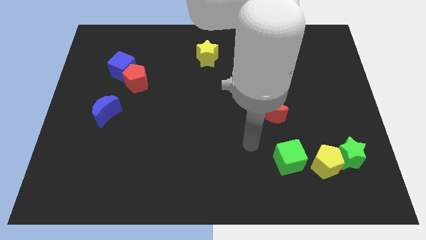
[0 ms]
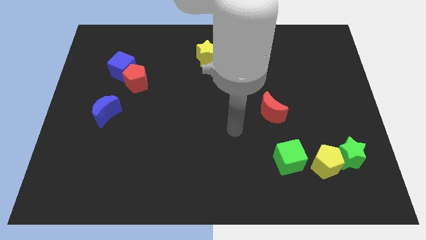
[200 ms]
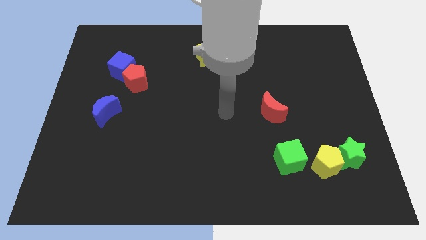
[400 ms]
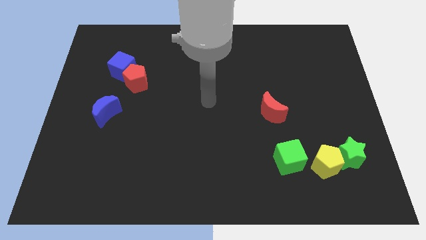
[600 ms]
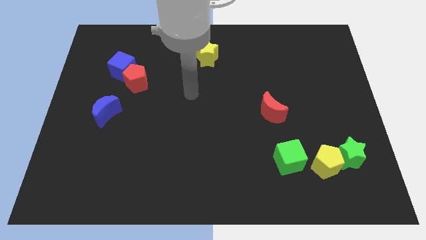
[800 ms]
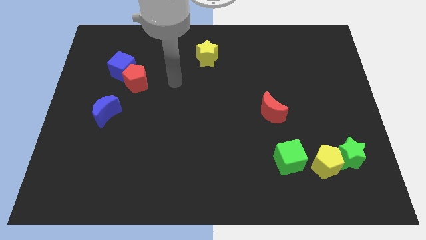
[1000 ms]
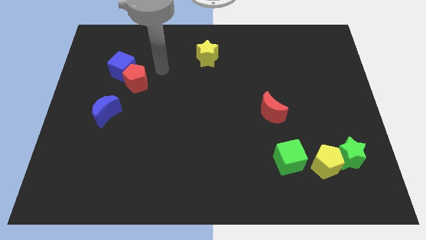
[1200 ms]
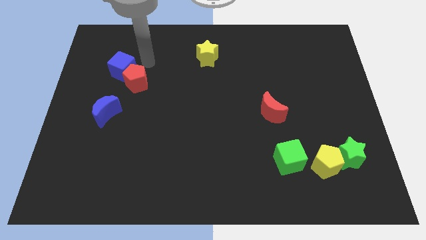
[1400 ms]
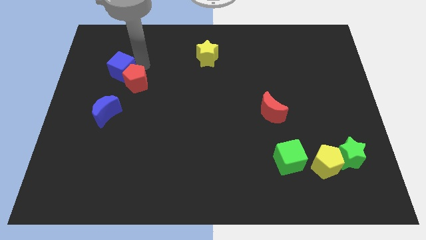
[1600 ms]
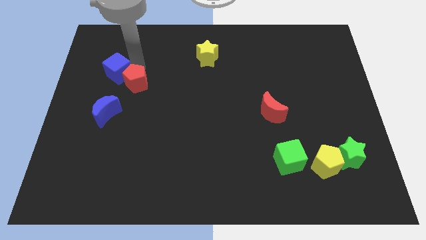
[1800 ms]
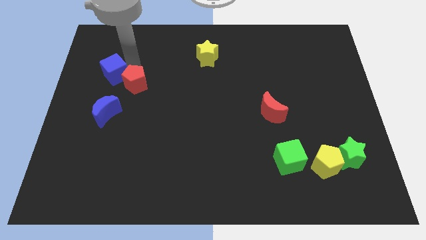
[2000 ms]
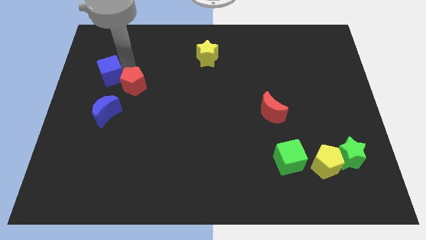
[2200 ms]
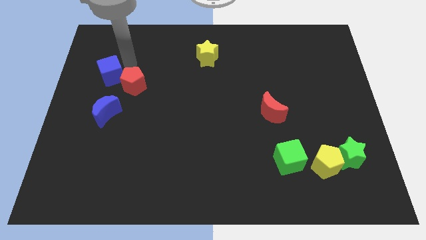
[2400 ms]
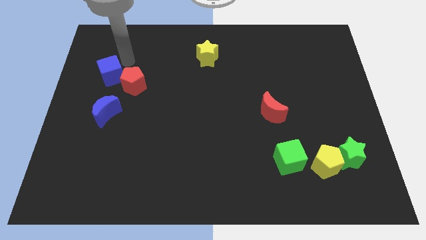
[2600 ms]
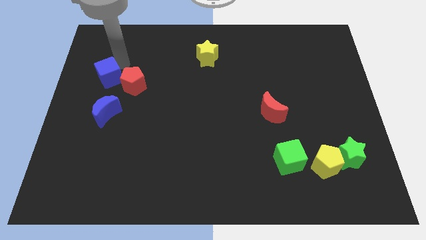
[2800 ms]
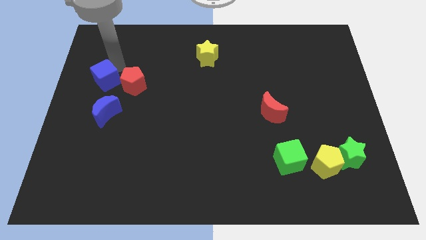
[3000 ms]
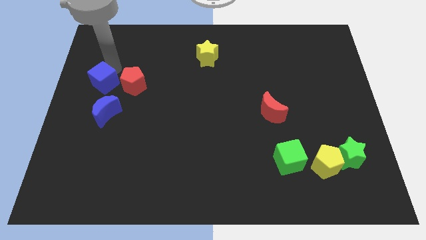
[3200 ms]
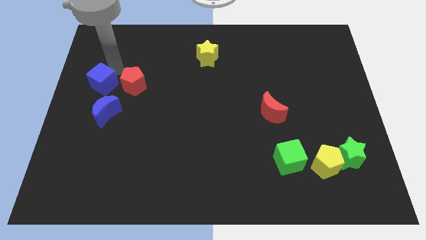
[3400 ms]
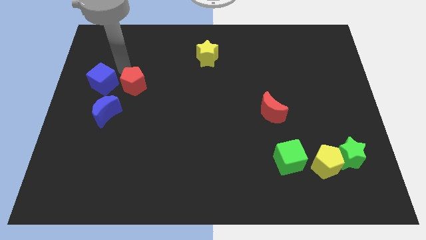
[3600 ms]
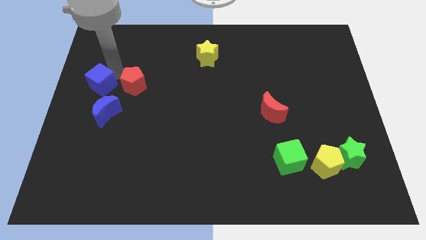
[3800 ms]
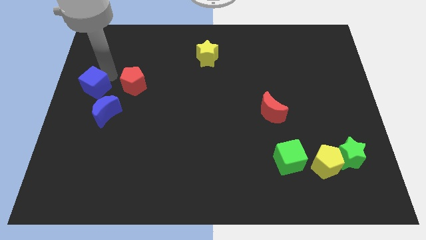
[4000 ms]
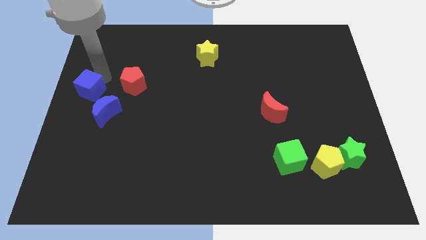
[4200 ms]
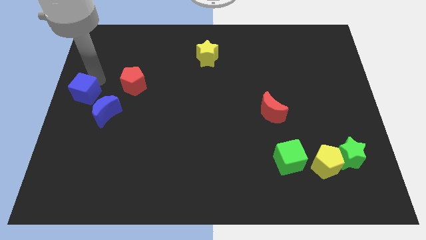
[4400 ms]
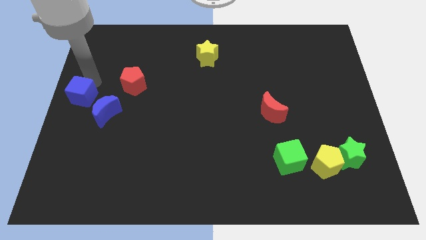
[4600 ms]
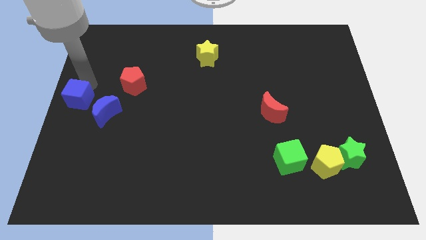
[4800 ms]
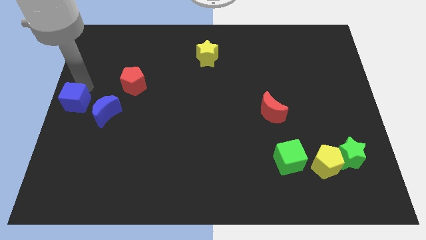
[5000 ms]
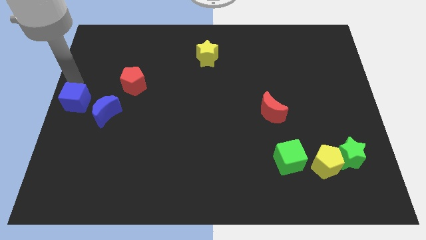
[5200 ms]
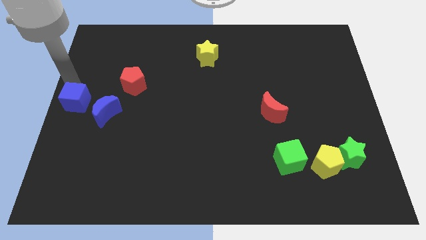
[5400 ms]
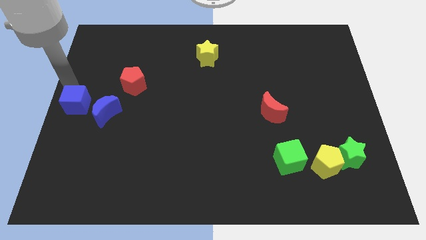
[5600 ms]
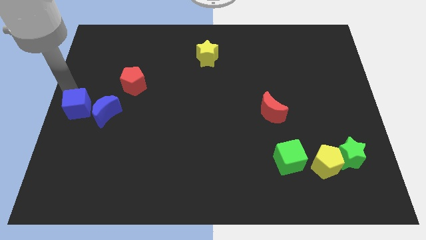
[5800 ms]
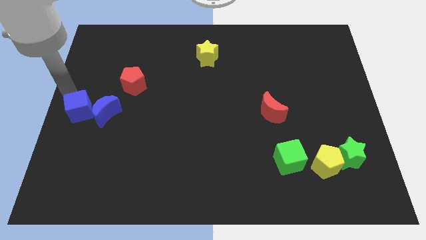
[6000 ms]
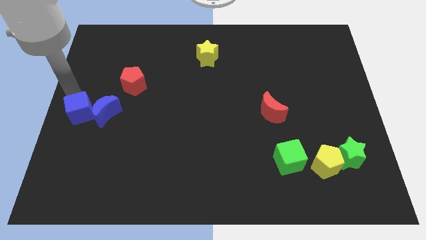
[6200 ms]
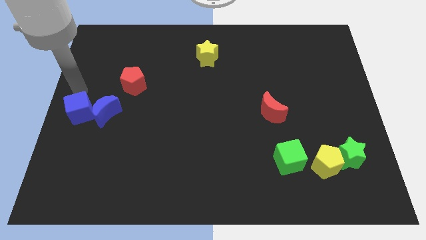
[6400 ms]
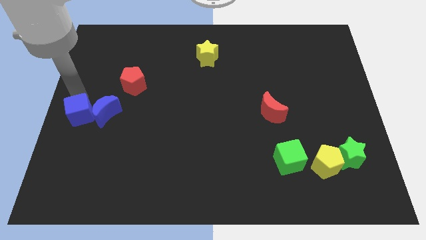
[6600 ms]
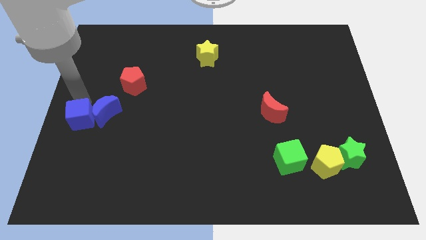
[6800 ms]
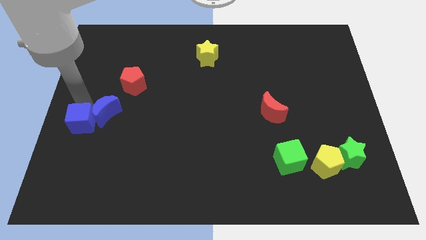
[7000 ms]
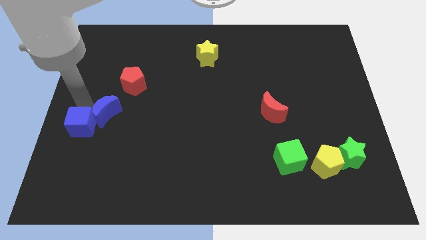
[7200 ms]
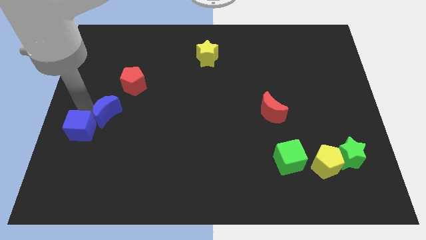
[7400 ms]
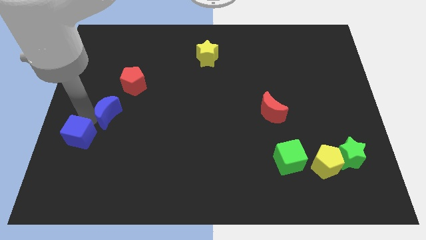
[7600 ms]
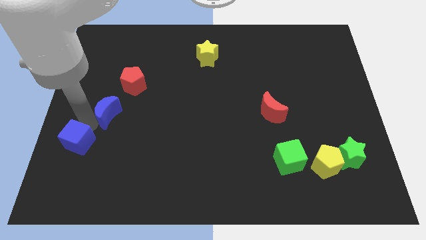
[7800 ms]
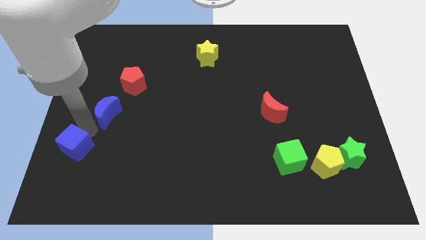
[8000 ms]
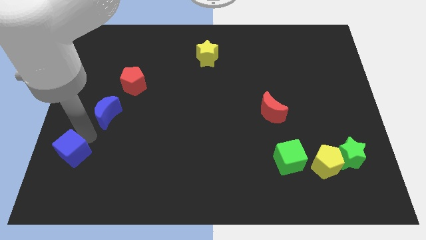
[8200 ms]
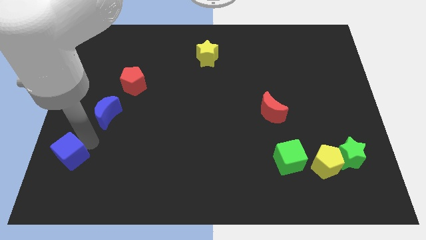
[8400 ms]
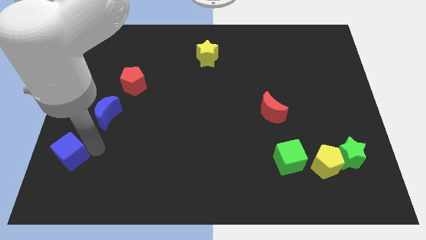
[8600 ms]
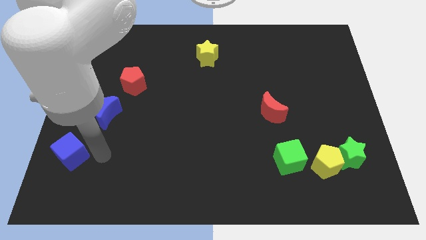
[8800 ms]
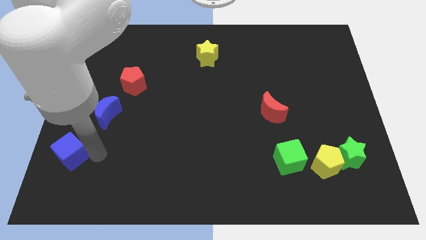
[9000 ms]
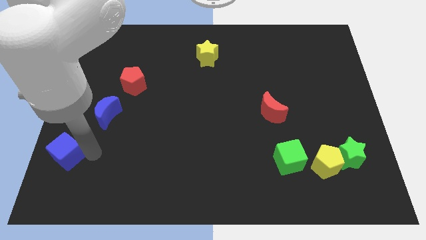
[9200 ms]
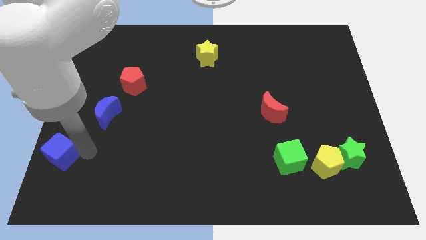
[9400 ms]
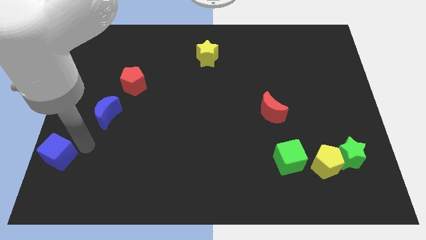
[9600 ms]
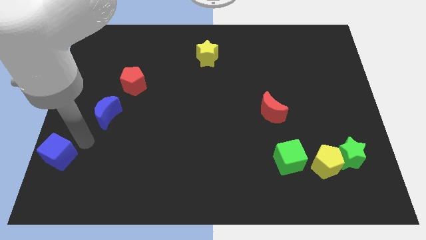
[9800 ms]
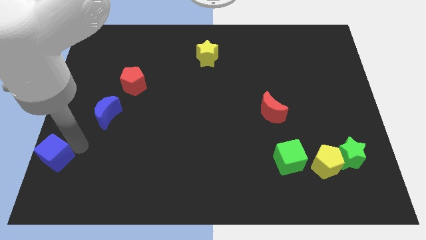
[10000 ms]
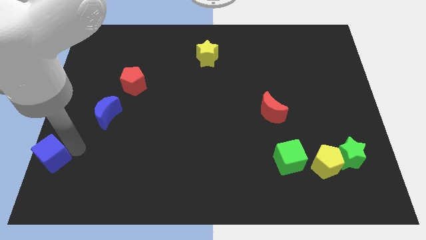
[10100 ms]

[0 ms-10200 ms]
put the blue cube to the bottom left

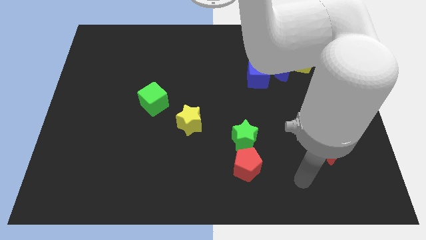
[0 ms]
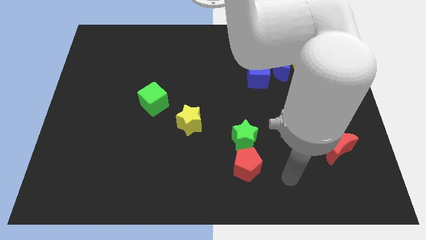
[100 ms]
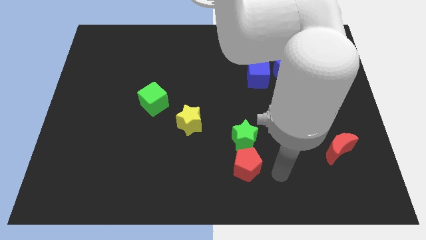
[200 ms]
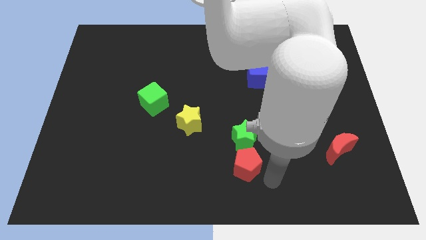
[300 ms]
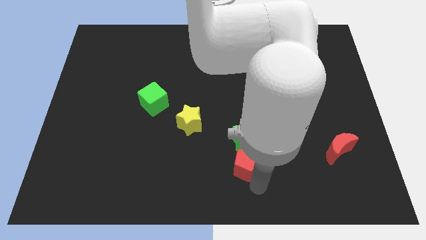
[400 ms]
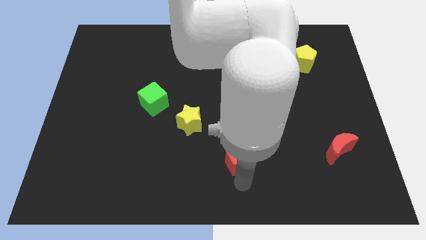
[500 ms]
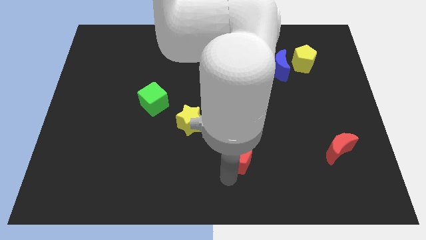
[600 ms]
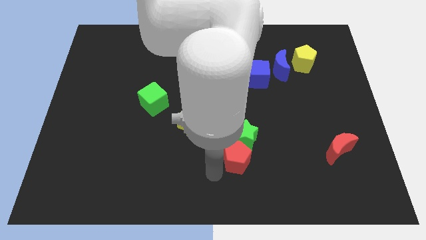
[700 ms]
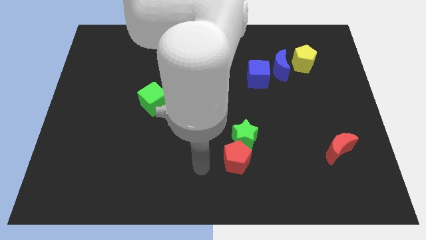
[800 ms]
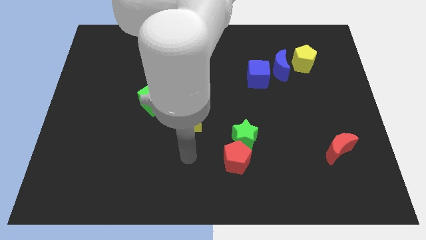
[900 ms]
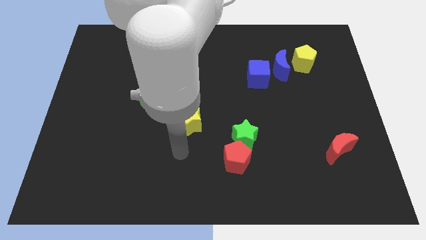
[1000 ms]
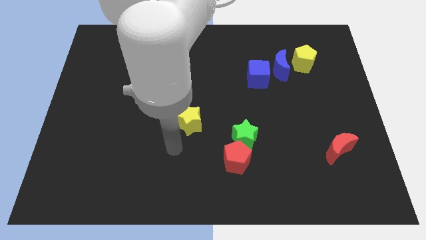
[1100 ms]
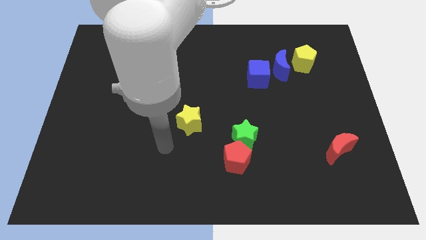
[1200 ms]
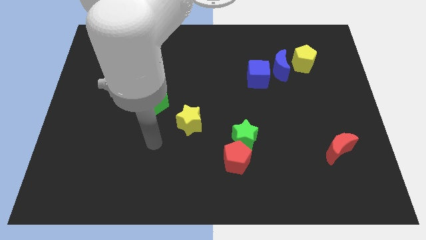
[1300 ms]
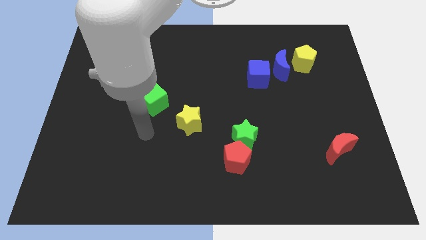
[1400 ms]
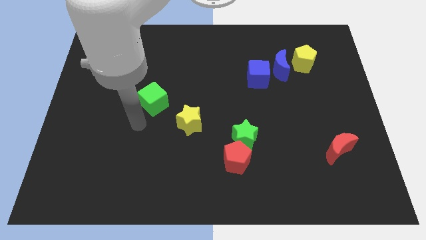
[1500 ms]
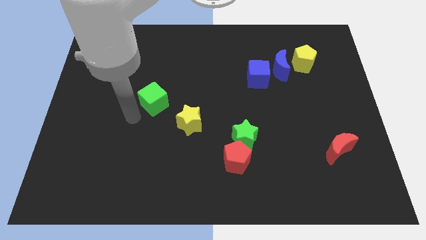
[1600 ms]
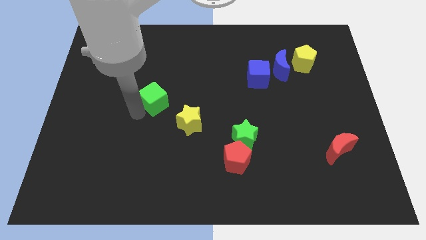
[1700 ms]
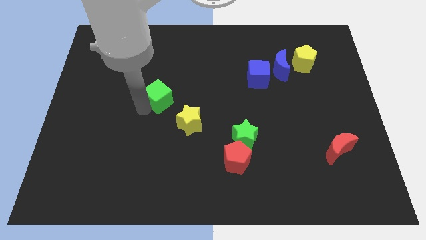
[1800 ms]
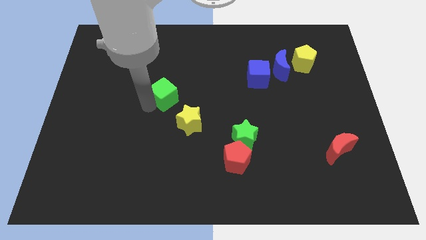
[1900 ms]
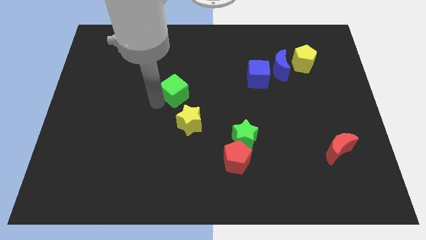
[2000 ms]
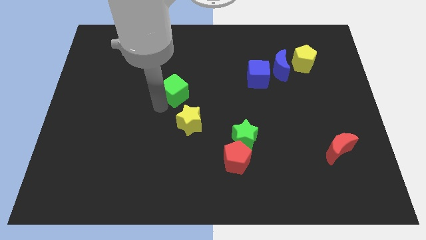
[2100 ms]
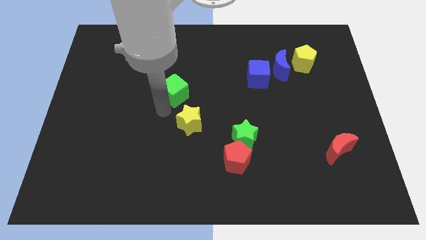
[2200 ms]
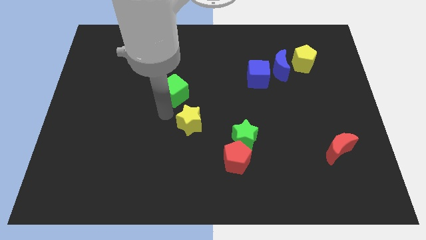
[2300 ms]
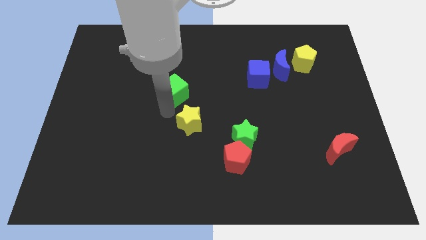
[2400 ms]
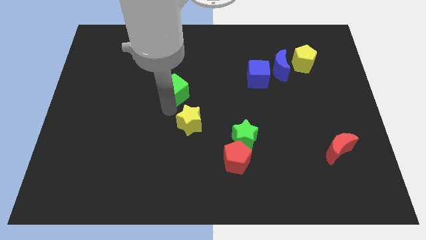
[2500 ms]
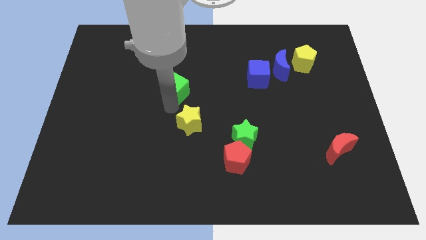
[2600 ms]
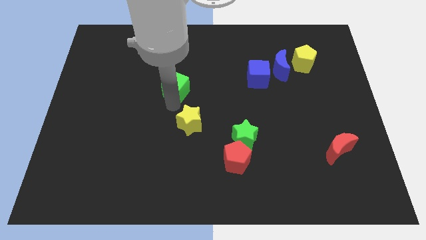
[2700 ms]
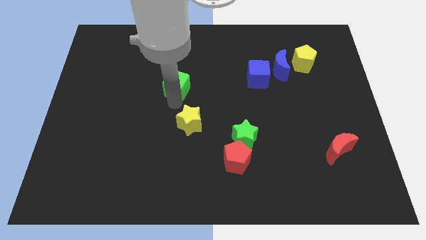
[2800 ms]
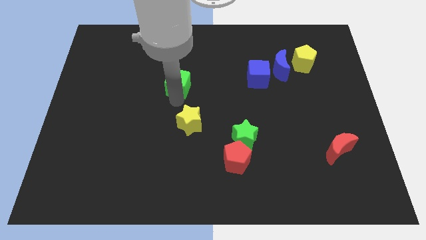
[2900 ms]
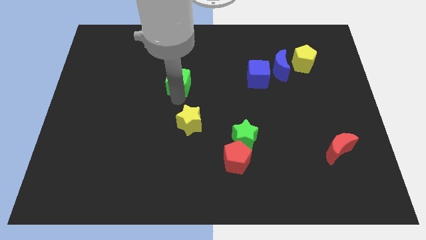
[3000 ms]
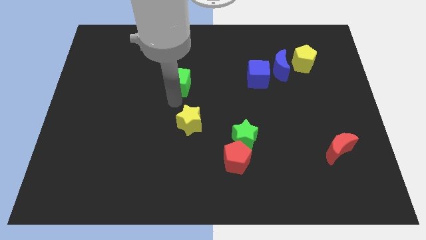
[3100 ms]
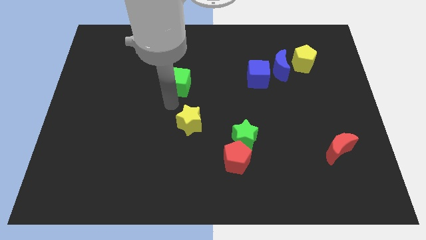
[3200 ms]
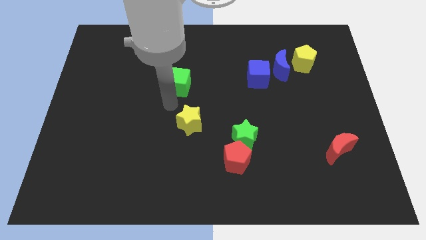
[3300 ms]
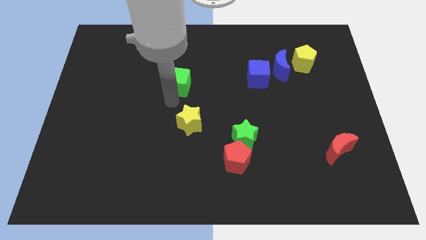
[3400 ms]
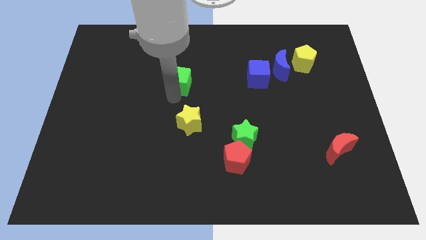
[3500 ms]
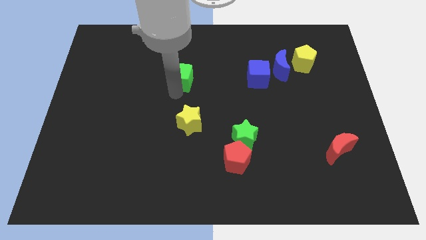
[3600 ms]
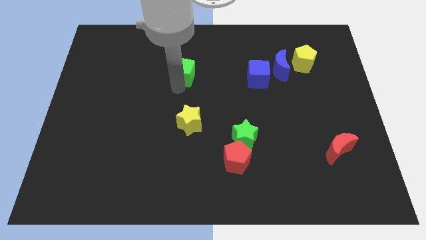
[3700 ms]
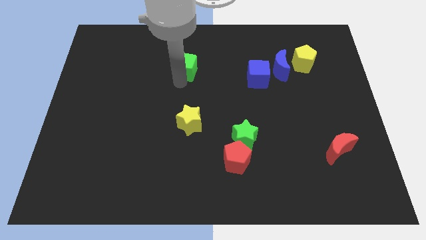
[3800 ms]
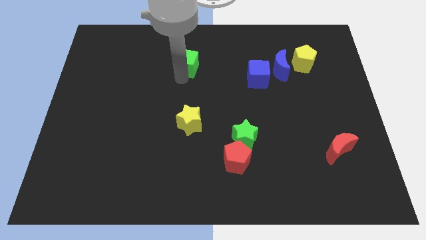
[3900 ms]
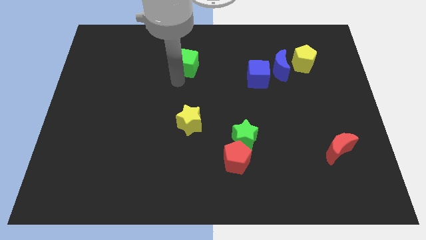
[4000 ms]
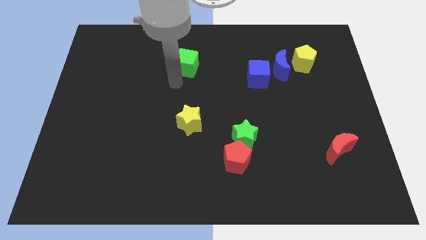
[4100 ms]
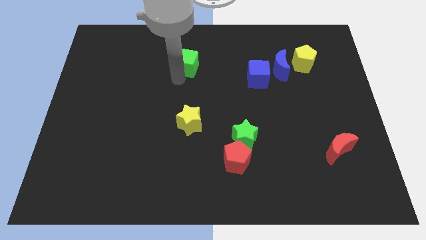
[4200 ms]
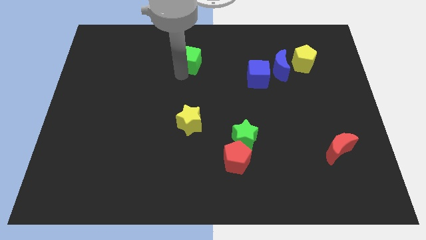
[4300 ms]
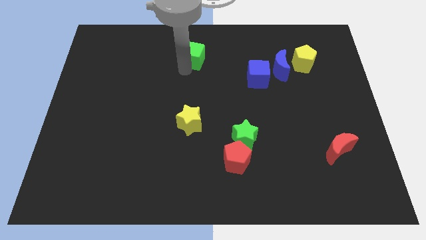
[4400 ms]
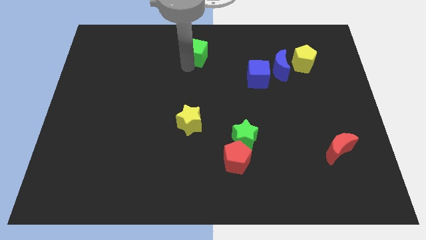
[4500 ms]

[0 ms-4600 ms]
move the green cube to the top
